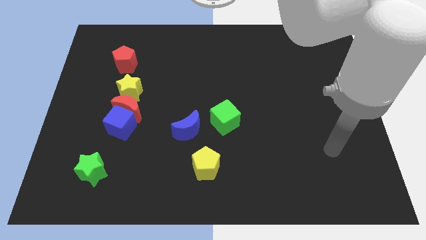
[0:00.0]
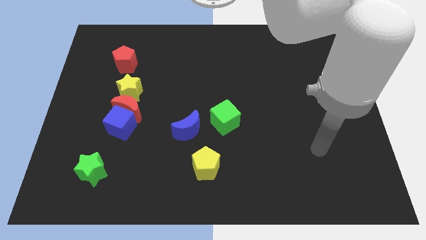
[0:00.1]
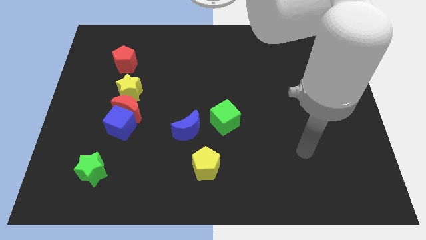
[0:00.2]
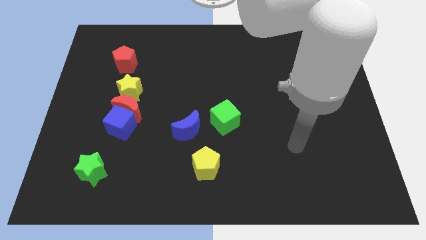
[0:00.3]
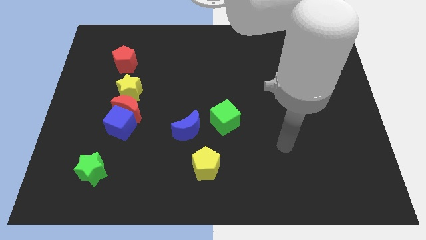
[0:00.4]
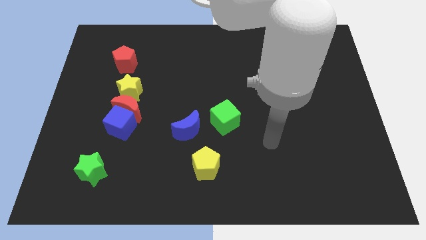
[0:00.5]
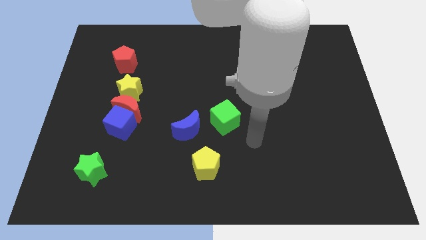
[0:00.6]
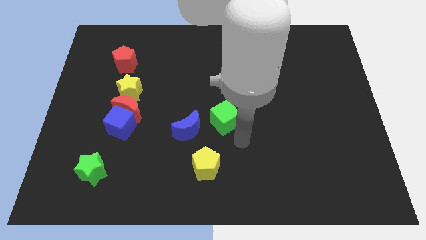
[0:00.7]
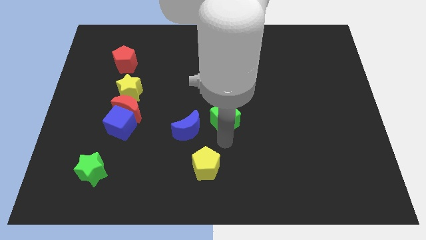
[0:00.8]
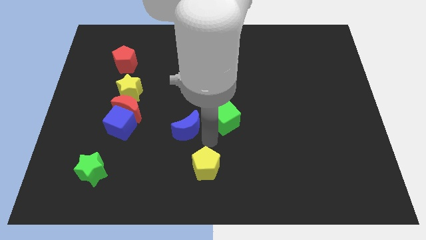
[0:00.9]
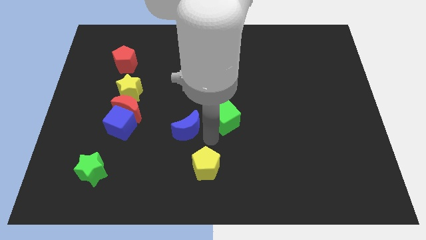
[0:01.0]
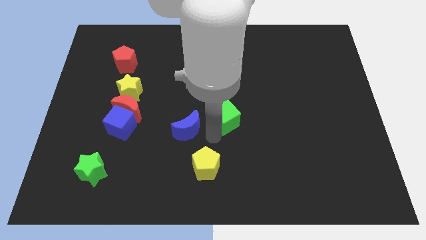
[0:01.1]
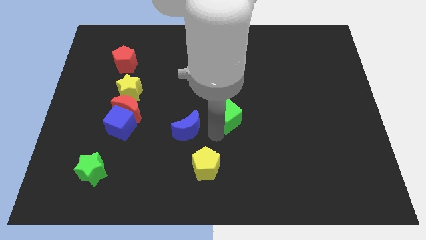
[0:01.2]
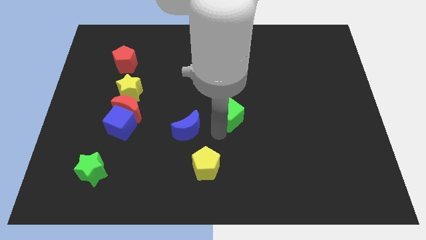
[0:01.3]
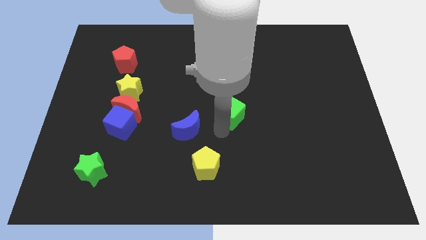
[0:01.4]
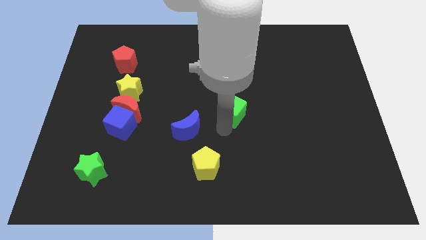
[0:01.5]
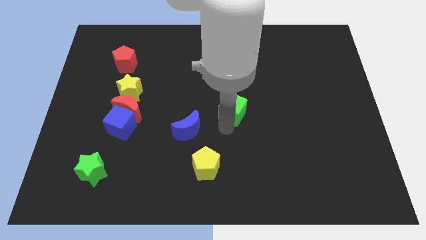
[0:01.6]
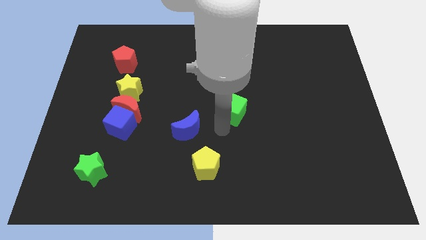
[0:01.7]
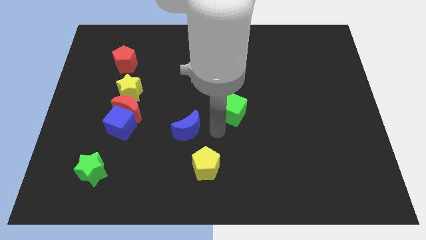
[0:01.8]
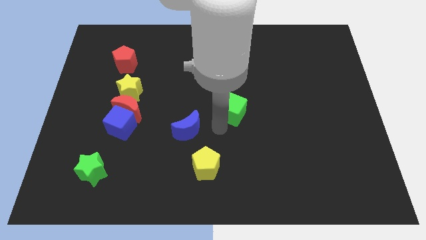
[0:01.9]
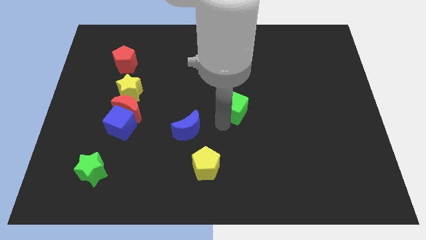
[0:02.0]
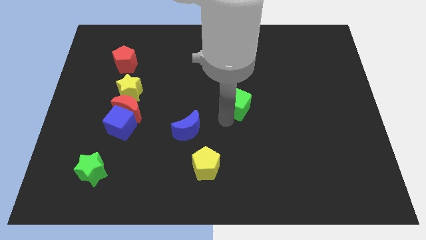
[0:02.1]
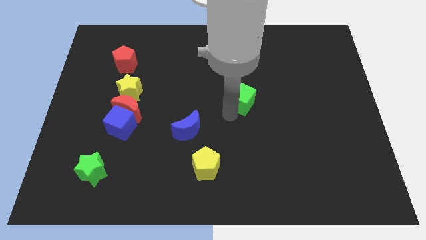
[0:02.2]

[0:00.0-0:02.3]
slide the green cube upwards and right a little

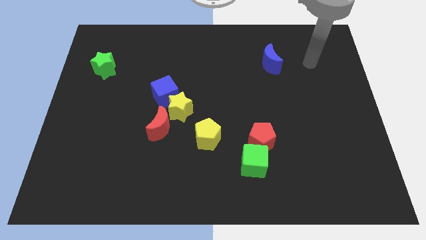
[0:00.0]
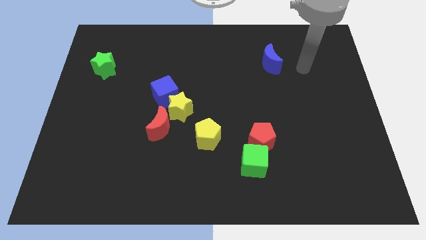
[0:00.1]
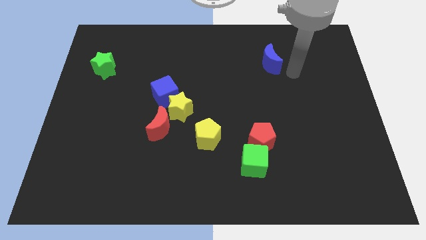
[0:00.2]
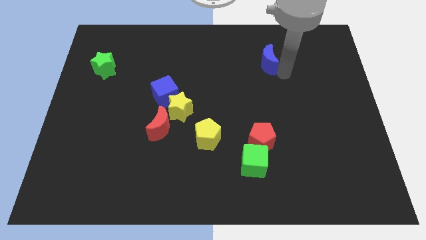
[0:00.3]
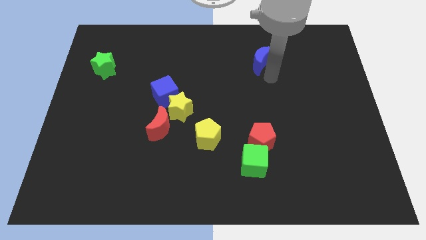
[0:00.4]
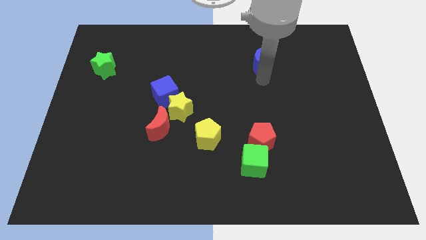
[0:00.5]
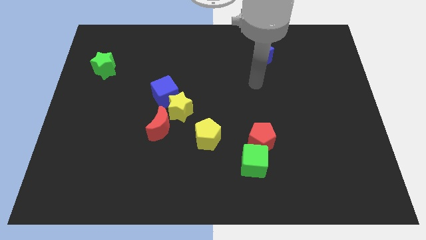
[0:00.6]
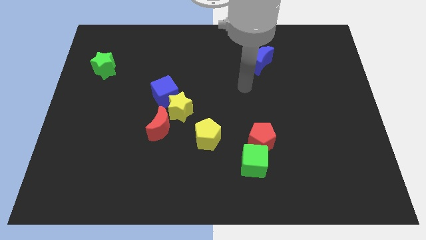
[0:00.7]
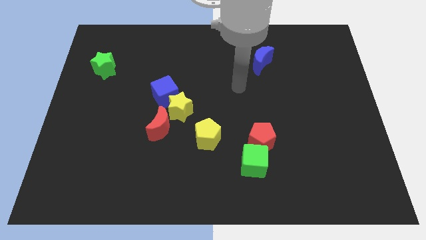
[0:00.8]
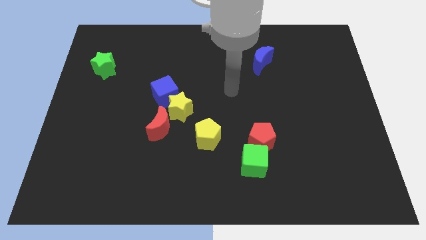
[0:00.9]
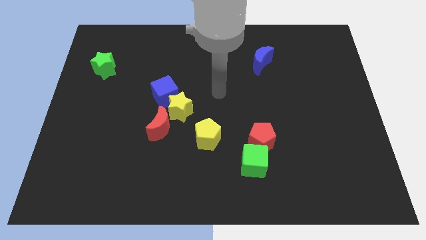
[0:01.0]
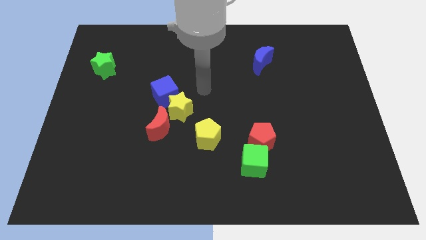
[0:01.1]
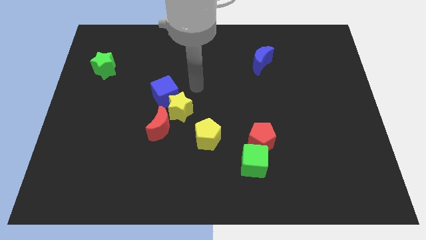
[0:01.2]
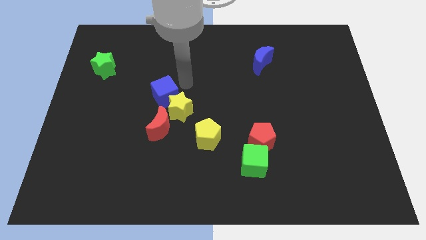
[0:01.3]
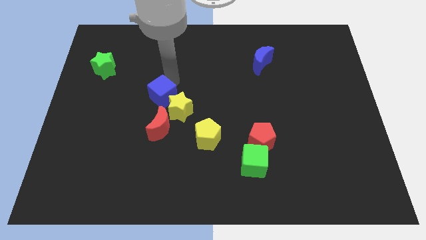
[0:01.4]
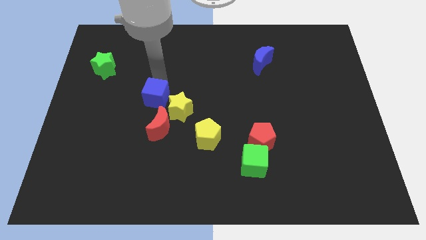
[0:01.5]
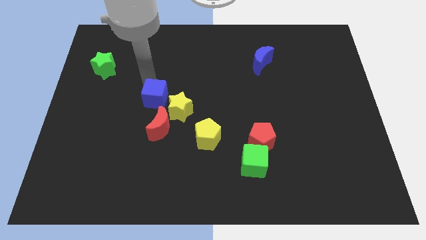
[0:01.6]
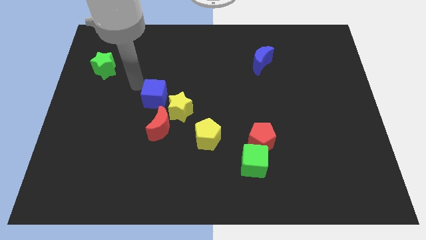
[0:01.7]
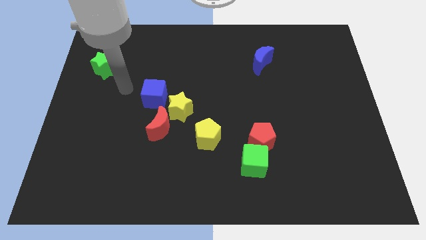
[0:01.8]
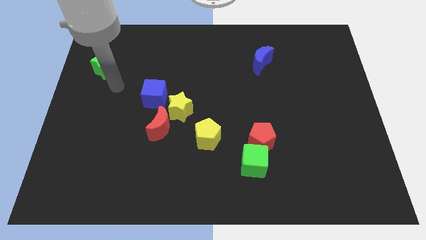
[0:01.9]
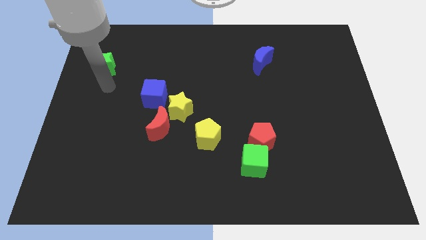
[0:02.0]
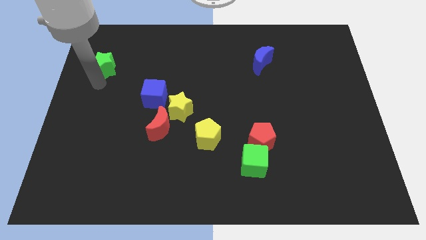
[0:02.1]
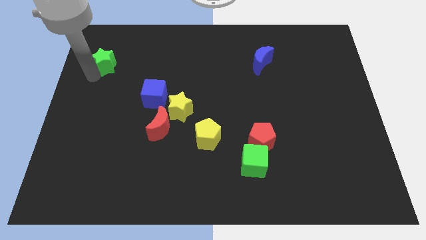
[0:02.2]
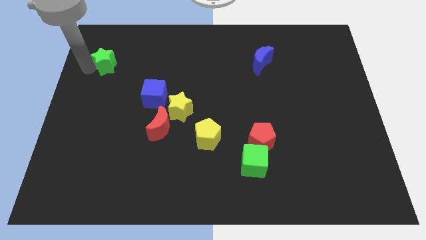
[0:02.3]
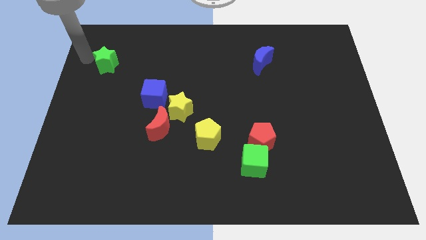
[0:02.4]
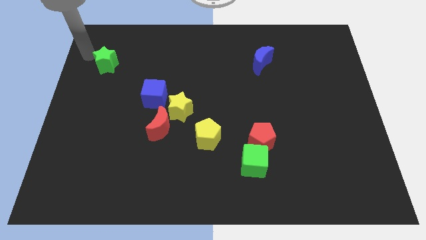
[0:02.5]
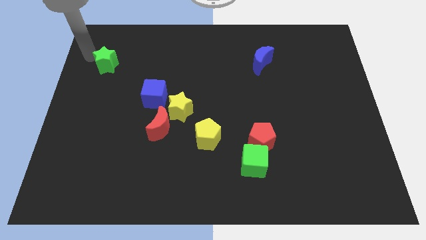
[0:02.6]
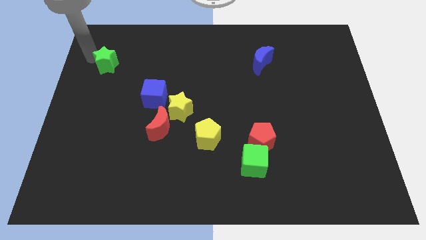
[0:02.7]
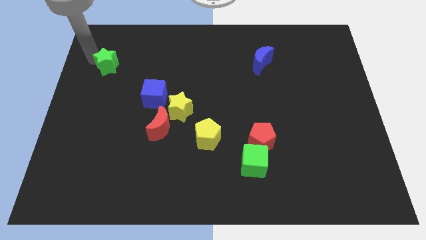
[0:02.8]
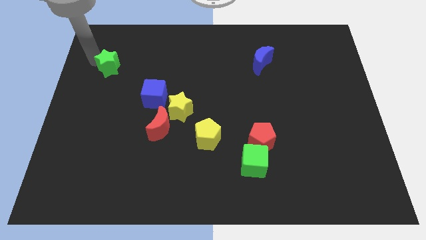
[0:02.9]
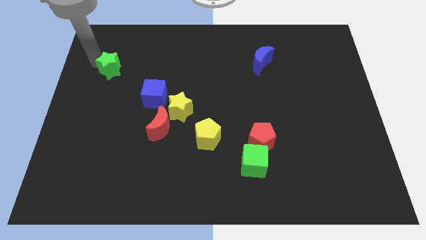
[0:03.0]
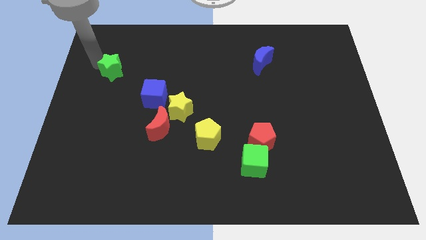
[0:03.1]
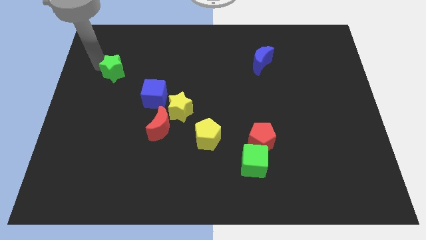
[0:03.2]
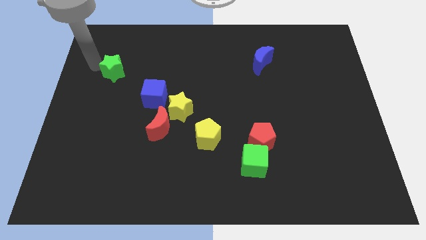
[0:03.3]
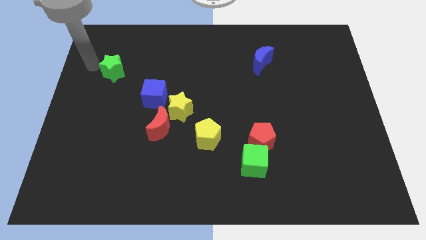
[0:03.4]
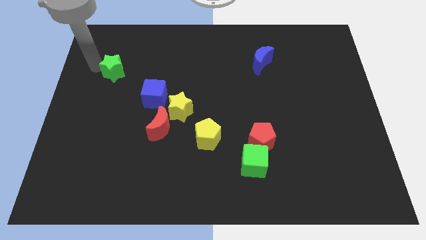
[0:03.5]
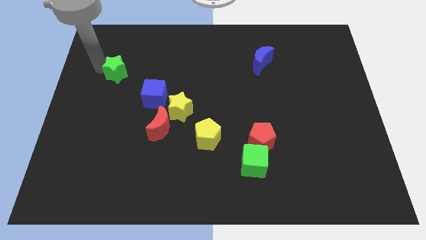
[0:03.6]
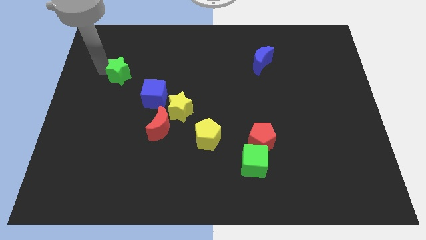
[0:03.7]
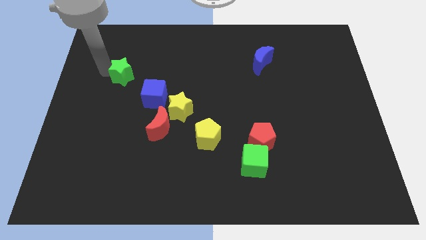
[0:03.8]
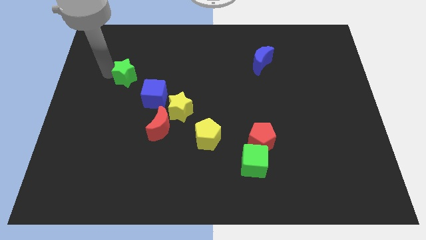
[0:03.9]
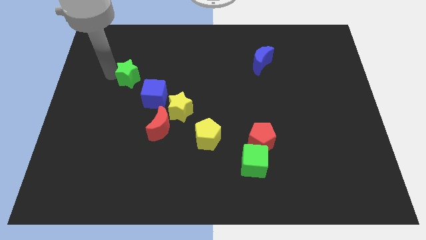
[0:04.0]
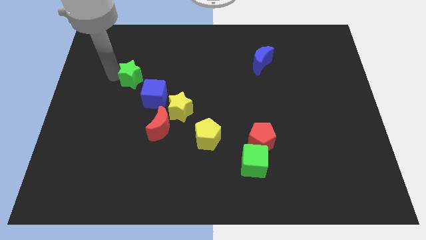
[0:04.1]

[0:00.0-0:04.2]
slide the green star slightly right

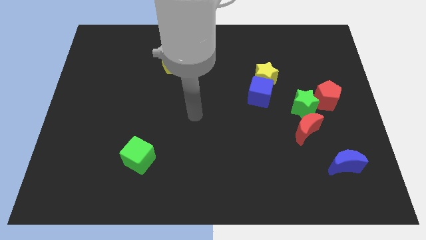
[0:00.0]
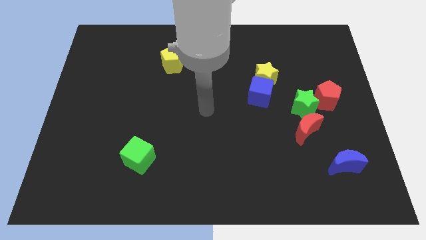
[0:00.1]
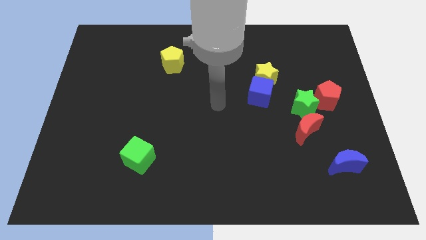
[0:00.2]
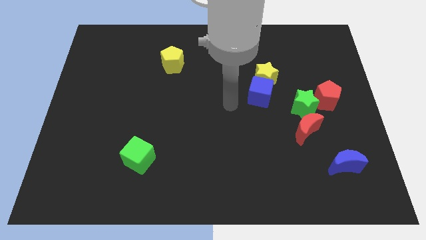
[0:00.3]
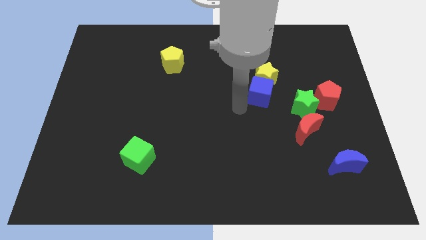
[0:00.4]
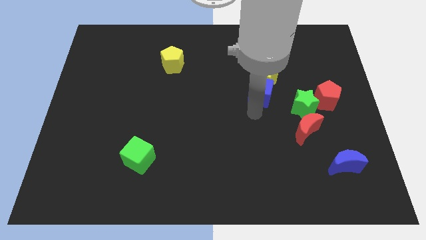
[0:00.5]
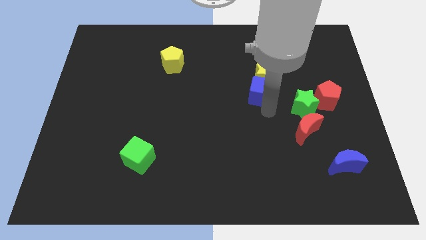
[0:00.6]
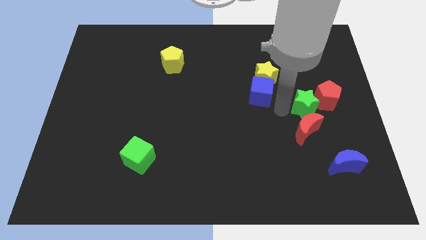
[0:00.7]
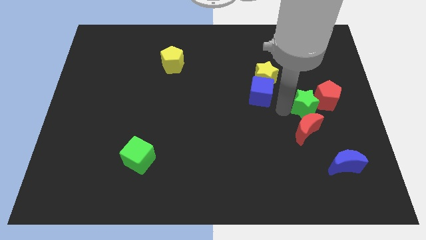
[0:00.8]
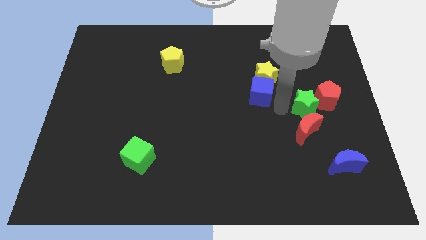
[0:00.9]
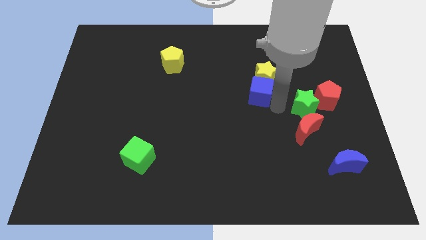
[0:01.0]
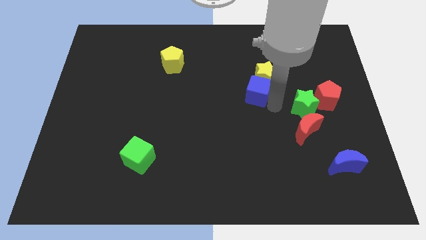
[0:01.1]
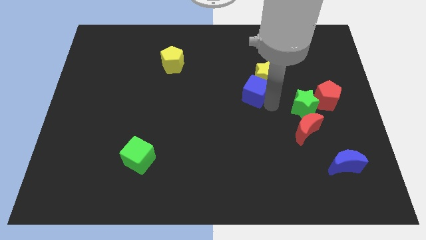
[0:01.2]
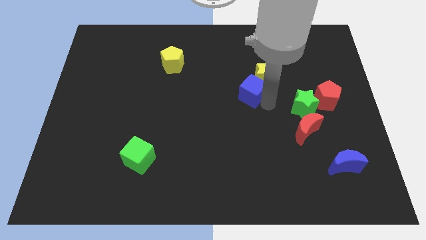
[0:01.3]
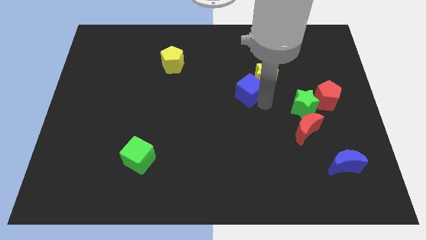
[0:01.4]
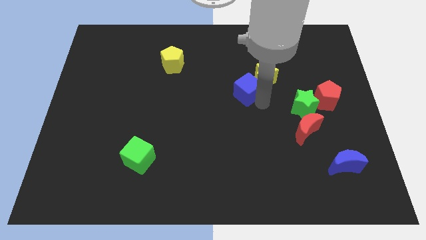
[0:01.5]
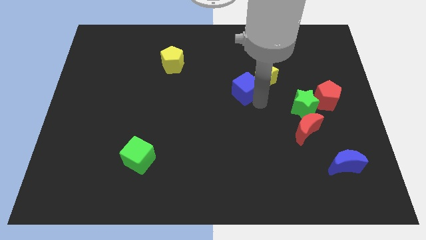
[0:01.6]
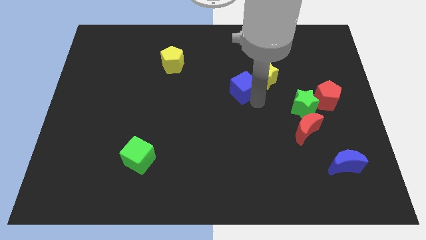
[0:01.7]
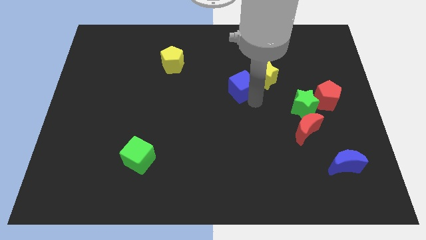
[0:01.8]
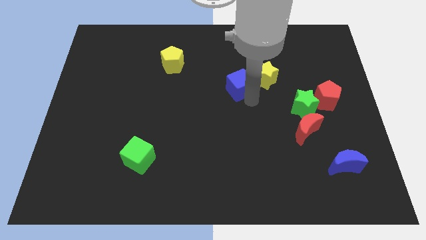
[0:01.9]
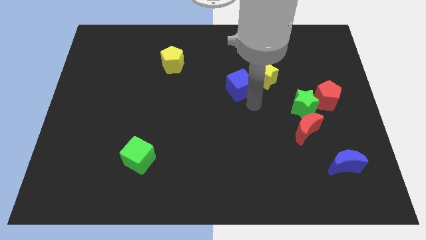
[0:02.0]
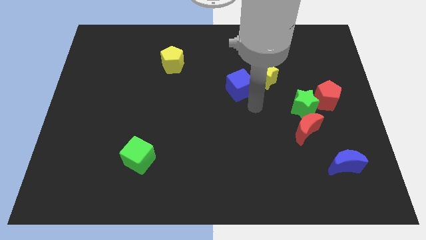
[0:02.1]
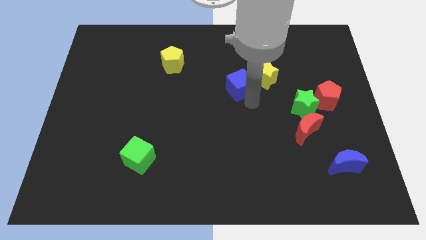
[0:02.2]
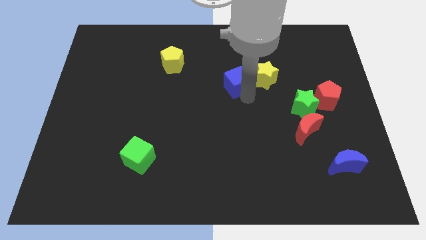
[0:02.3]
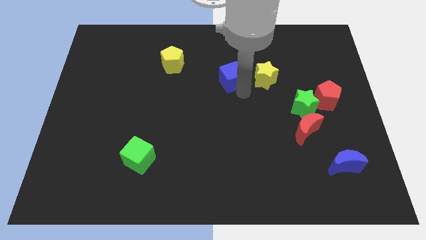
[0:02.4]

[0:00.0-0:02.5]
slightly push the blue cube upwards and then left

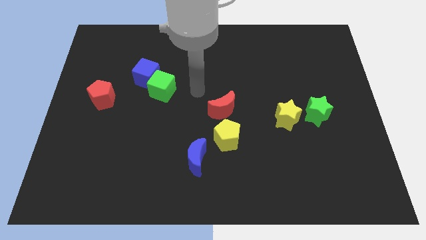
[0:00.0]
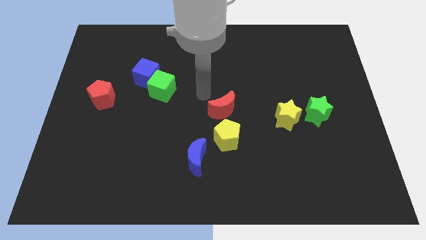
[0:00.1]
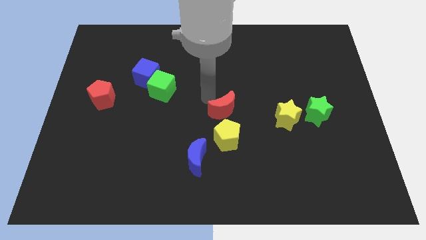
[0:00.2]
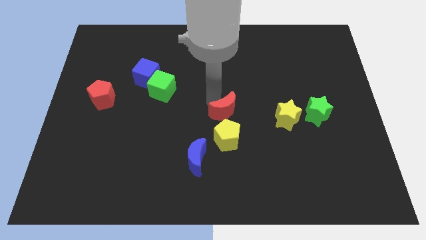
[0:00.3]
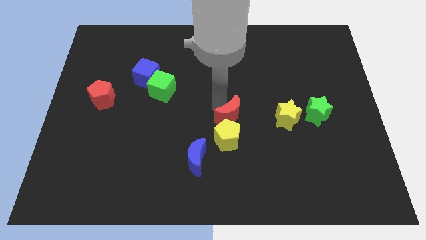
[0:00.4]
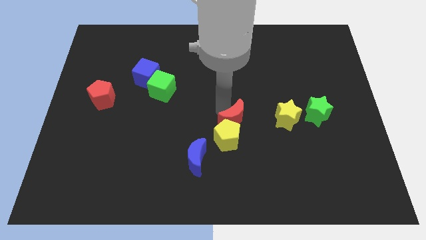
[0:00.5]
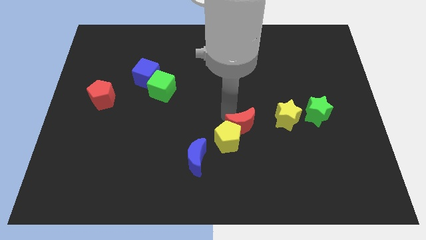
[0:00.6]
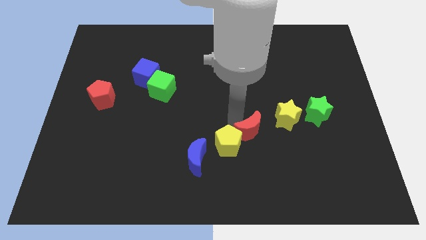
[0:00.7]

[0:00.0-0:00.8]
slide the red moon downwards and to the right somewhat
